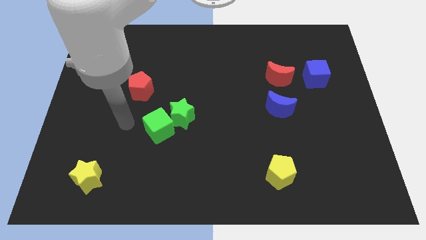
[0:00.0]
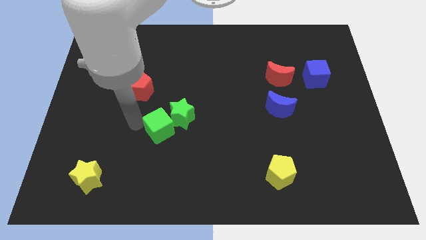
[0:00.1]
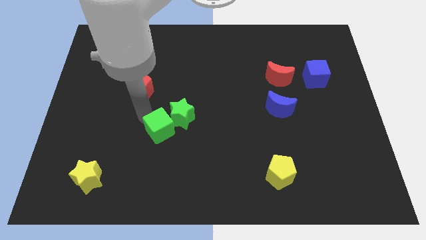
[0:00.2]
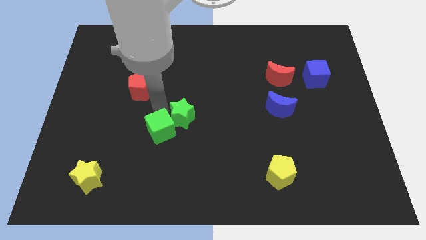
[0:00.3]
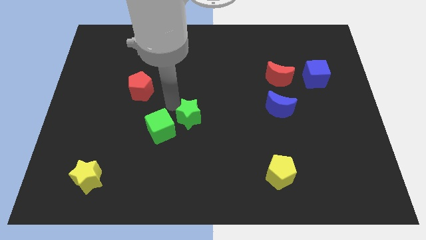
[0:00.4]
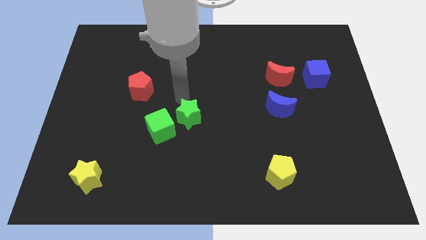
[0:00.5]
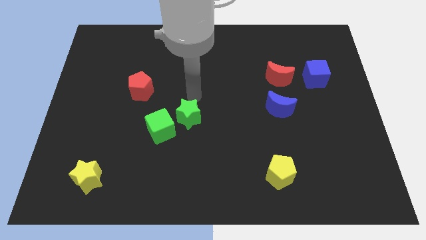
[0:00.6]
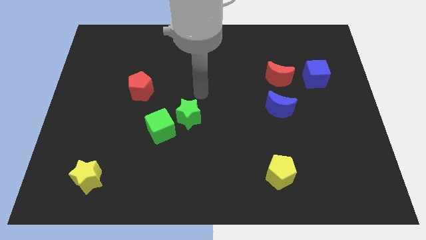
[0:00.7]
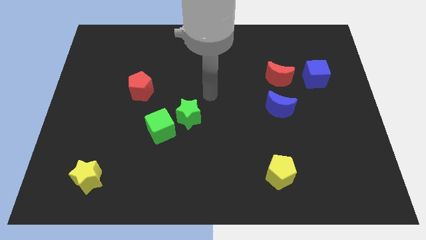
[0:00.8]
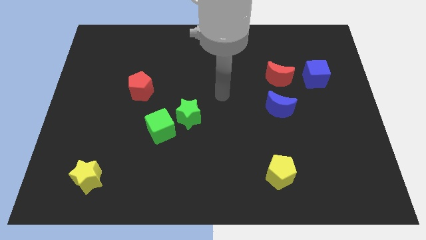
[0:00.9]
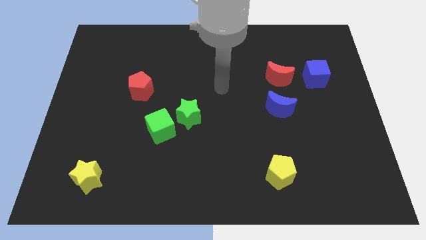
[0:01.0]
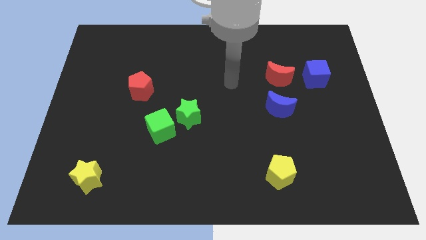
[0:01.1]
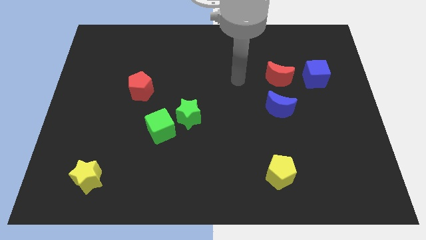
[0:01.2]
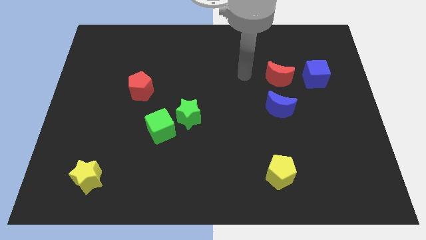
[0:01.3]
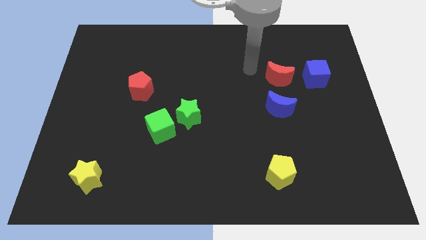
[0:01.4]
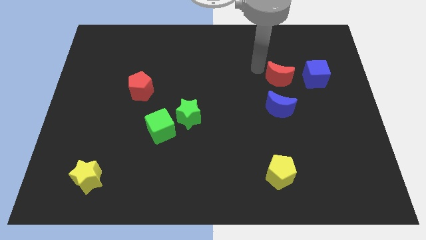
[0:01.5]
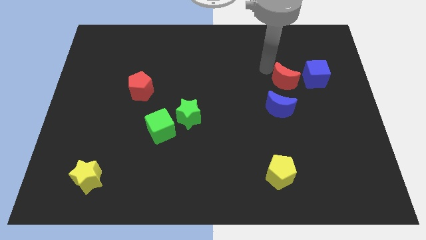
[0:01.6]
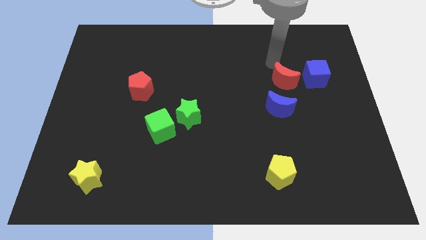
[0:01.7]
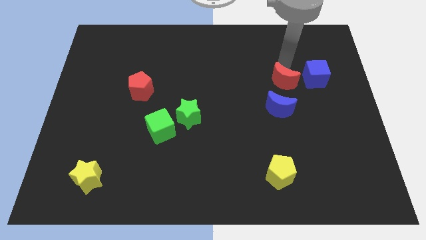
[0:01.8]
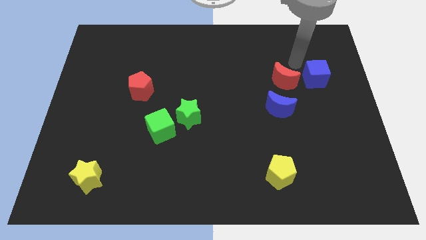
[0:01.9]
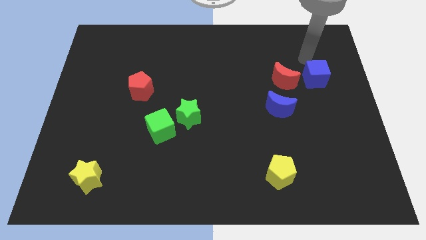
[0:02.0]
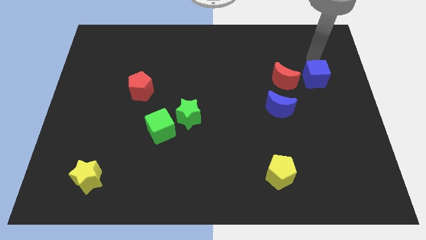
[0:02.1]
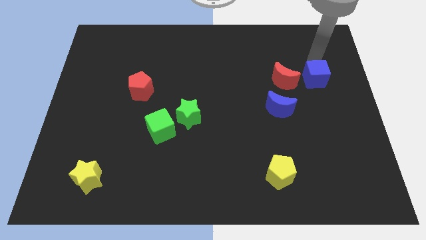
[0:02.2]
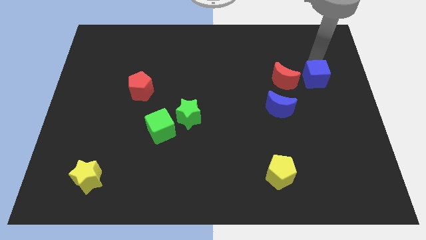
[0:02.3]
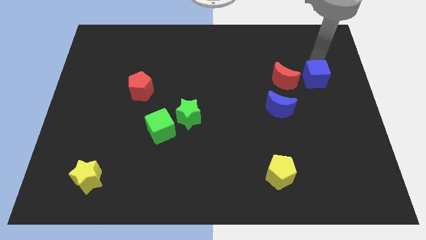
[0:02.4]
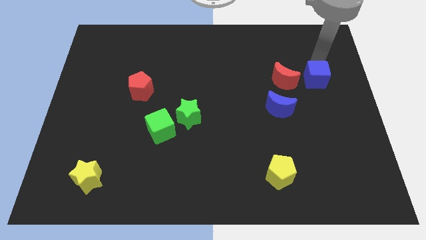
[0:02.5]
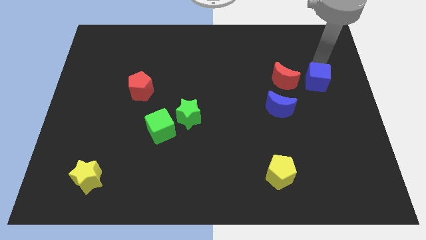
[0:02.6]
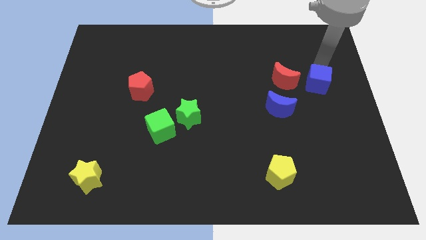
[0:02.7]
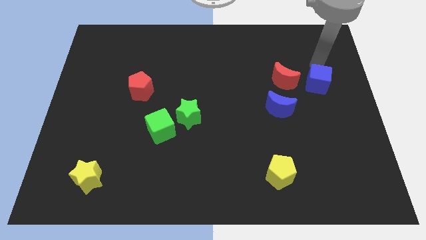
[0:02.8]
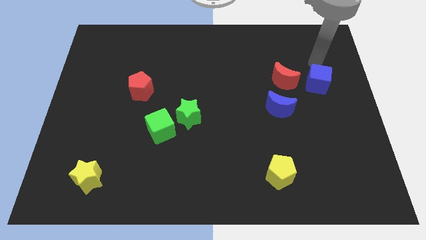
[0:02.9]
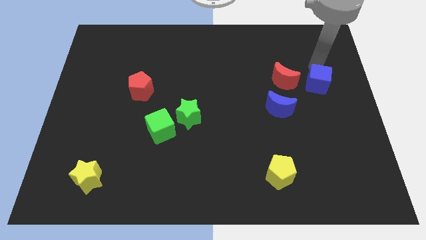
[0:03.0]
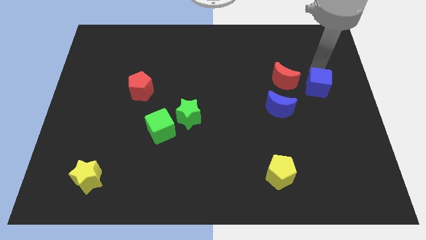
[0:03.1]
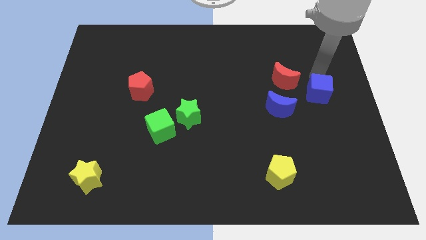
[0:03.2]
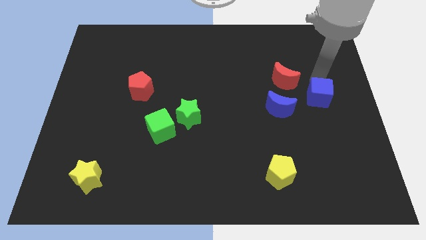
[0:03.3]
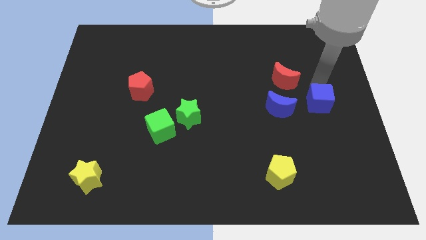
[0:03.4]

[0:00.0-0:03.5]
push the blue cube a little down

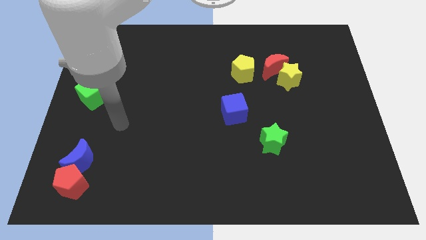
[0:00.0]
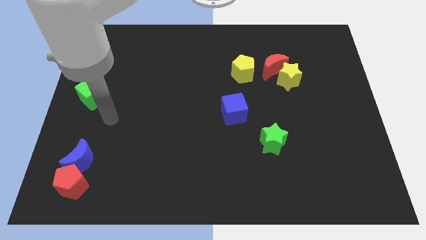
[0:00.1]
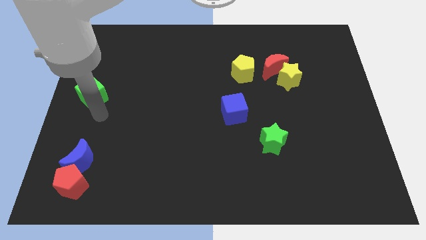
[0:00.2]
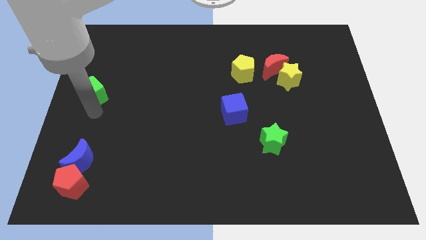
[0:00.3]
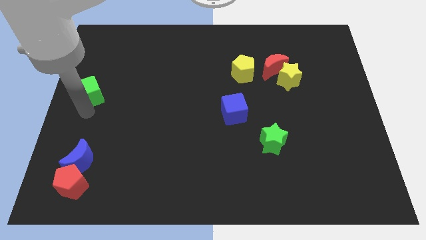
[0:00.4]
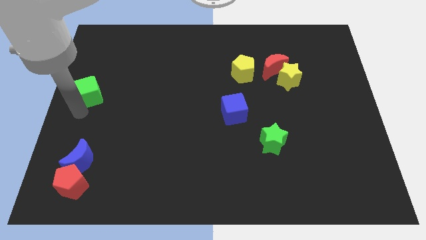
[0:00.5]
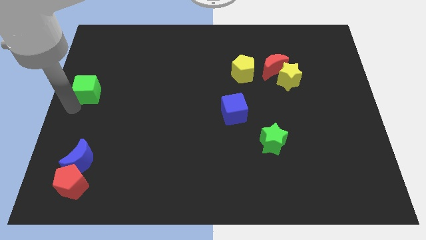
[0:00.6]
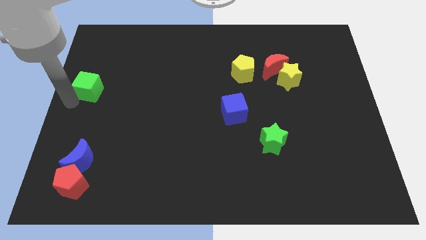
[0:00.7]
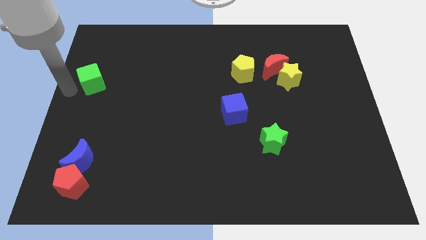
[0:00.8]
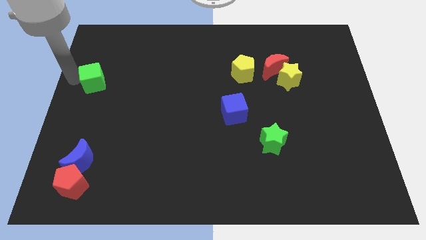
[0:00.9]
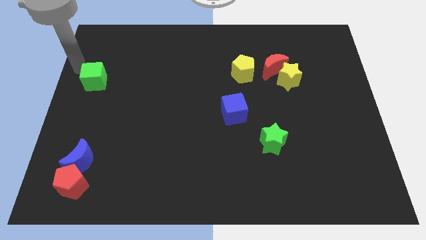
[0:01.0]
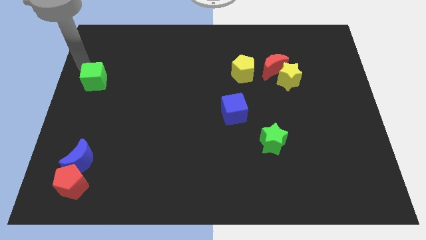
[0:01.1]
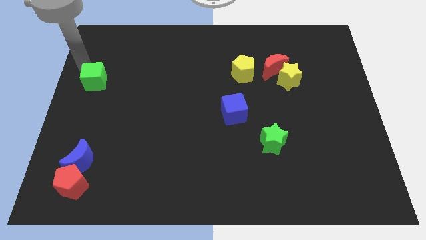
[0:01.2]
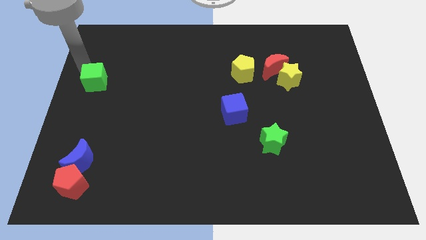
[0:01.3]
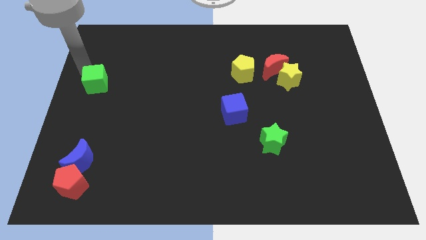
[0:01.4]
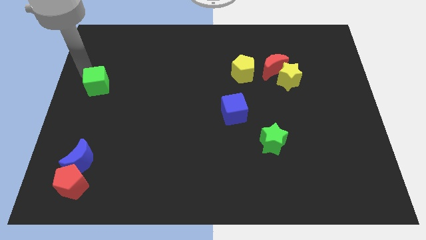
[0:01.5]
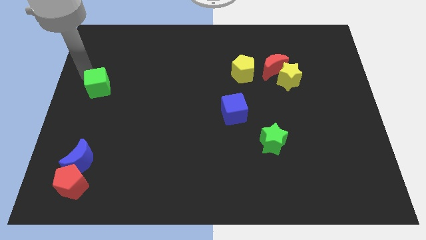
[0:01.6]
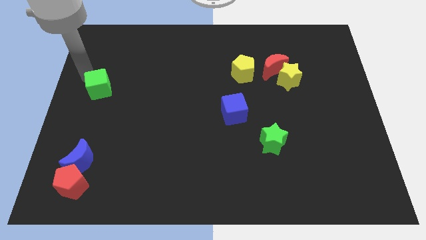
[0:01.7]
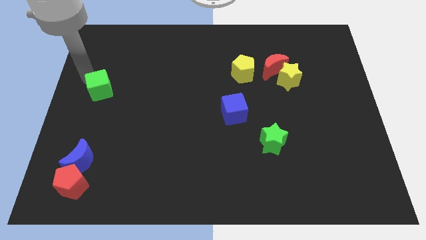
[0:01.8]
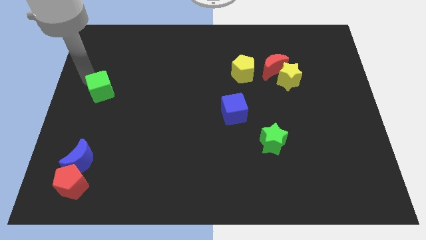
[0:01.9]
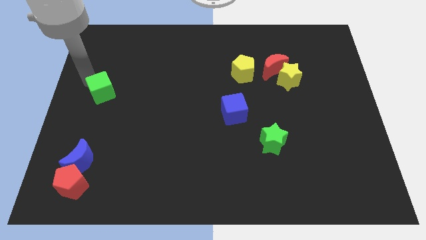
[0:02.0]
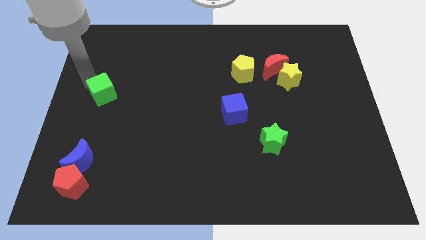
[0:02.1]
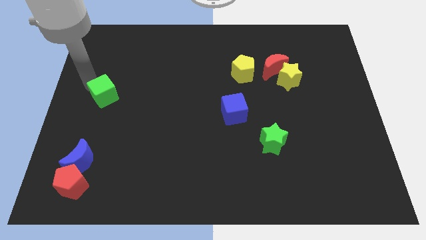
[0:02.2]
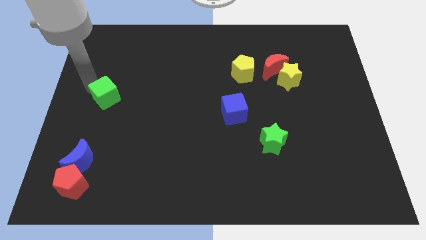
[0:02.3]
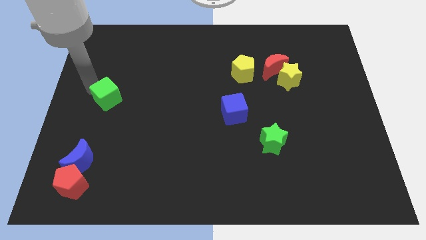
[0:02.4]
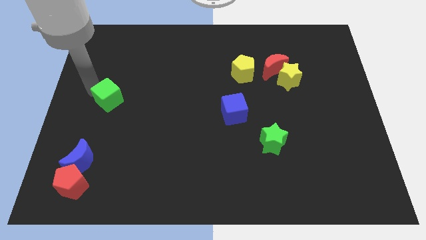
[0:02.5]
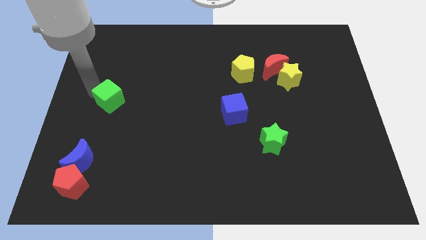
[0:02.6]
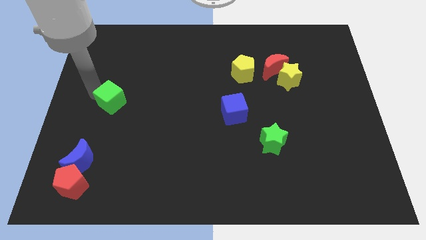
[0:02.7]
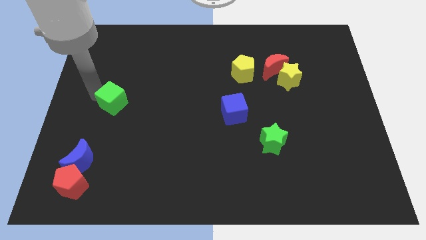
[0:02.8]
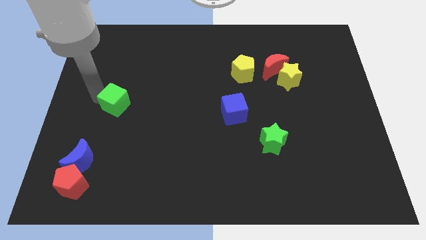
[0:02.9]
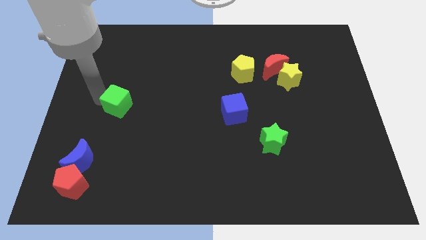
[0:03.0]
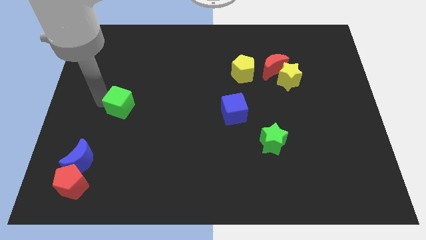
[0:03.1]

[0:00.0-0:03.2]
slide the green cube slightly to the right

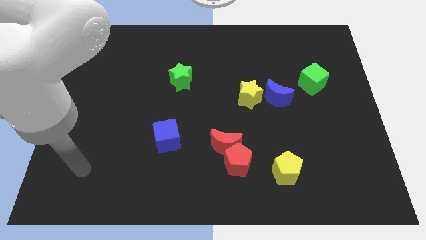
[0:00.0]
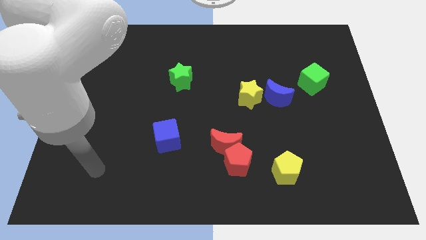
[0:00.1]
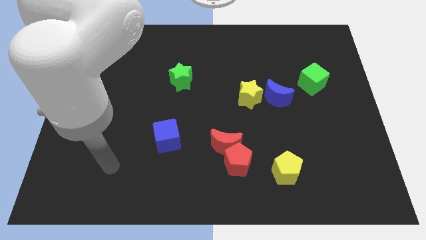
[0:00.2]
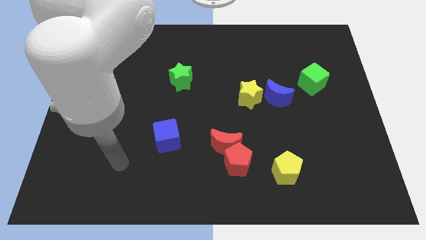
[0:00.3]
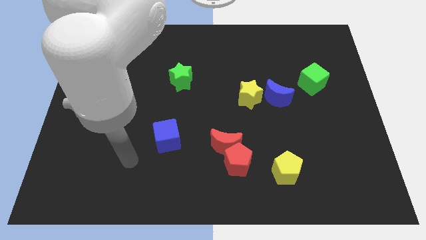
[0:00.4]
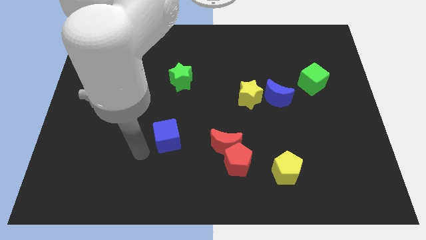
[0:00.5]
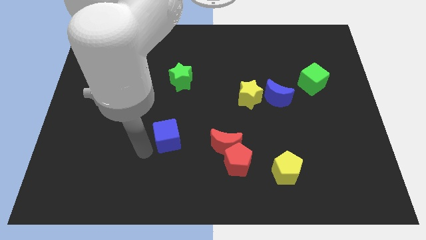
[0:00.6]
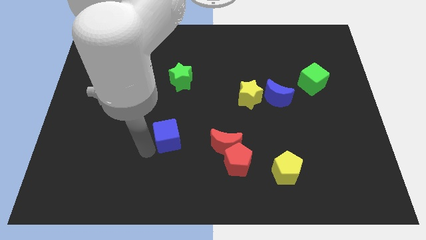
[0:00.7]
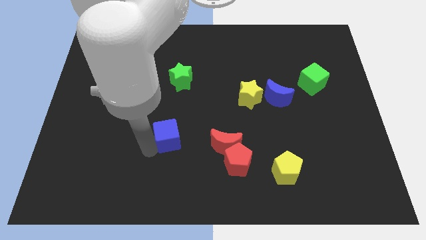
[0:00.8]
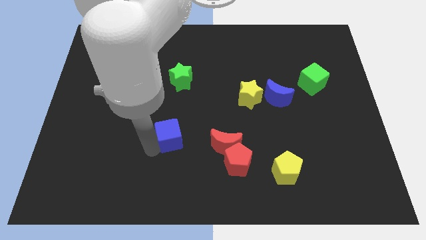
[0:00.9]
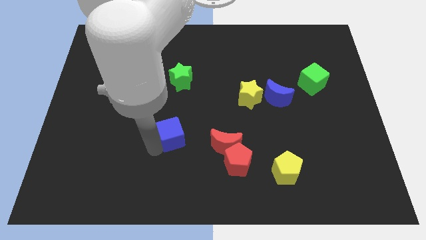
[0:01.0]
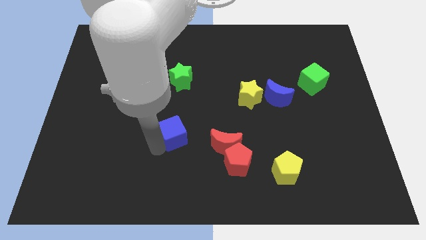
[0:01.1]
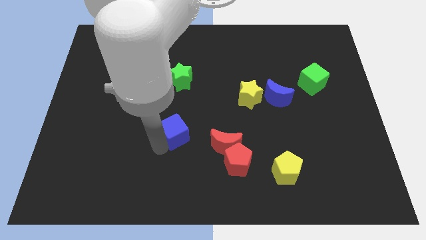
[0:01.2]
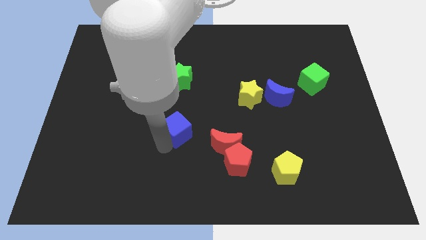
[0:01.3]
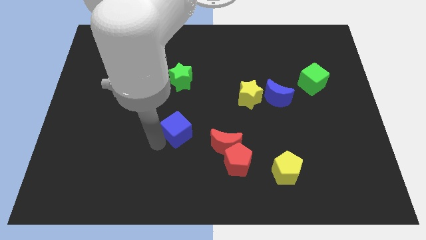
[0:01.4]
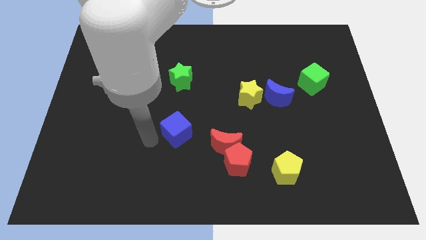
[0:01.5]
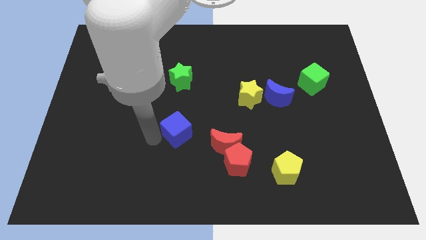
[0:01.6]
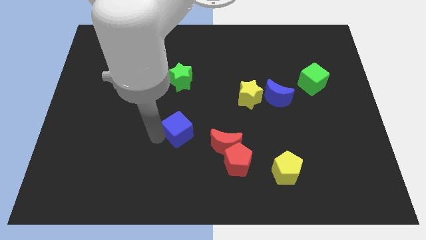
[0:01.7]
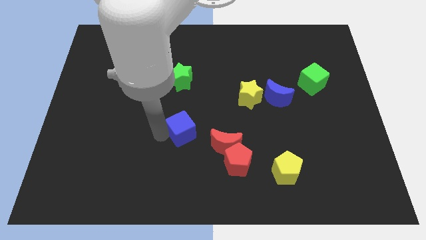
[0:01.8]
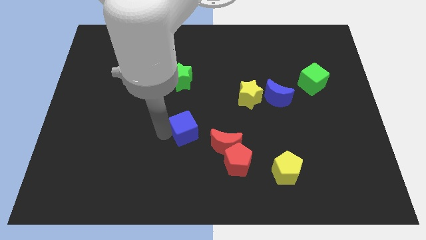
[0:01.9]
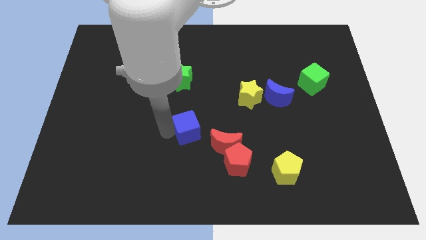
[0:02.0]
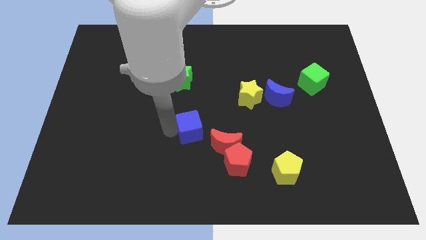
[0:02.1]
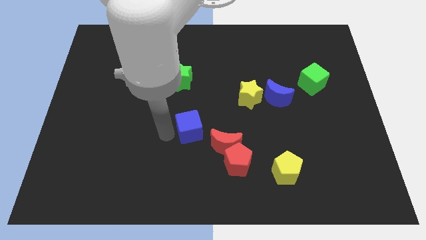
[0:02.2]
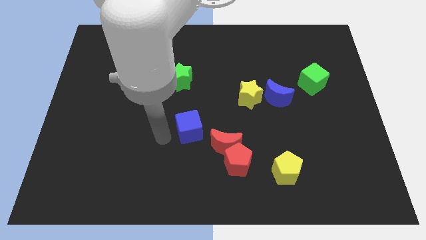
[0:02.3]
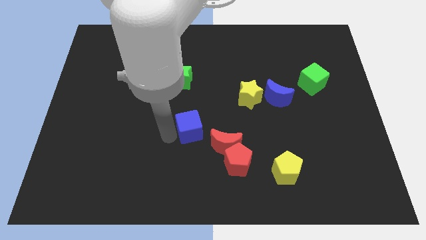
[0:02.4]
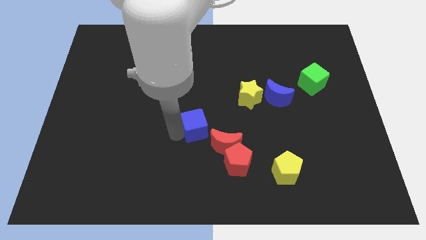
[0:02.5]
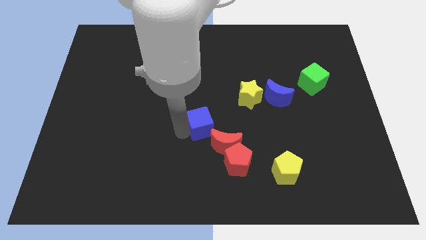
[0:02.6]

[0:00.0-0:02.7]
slightly move the blue cube right
